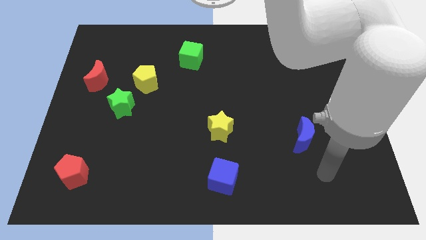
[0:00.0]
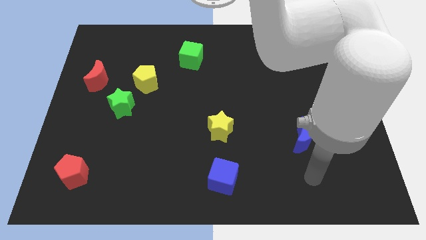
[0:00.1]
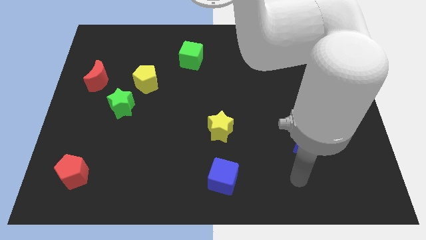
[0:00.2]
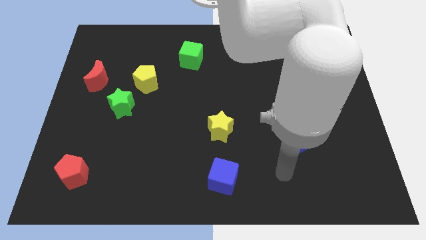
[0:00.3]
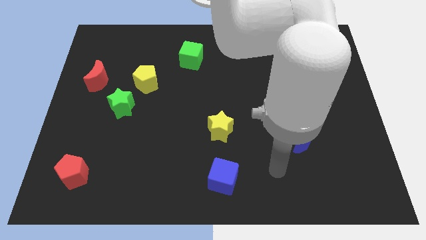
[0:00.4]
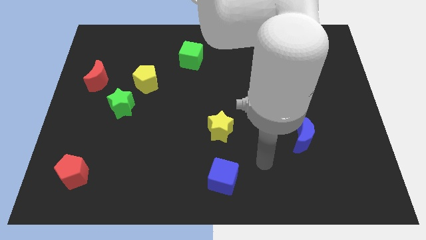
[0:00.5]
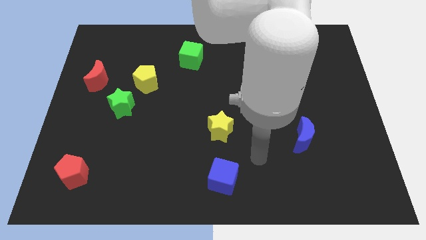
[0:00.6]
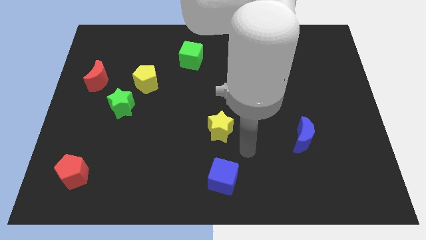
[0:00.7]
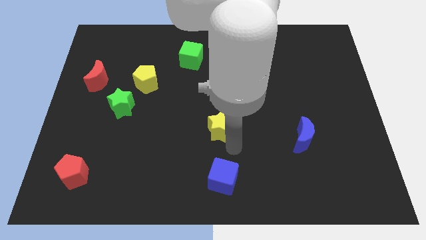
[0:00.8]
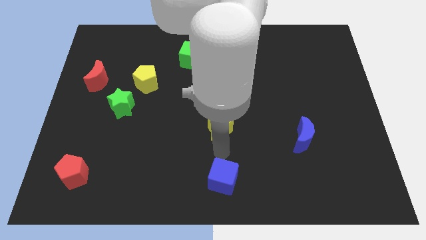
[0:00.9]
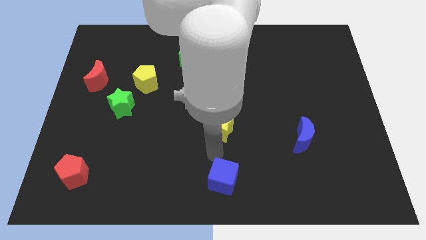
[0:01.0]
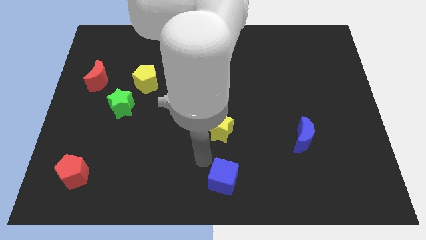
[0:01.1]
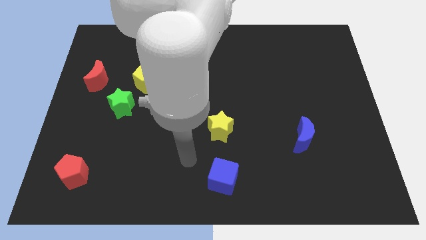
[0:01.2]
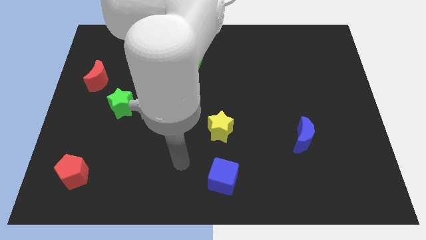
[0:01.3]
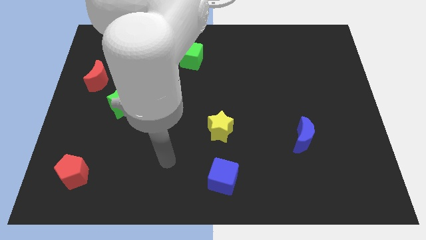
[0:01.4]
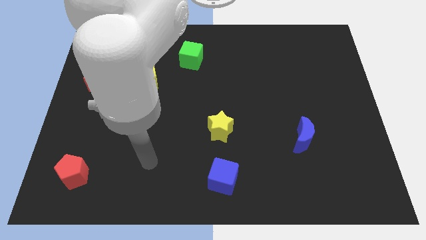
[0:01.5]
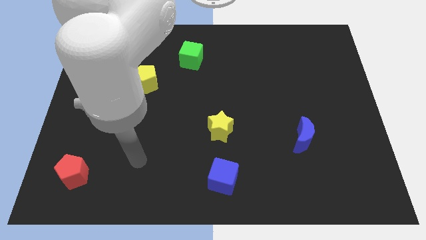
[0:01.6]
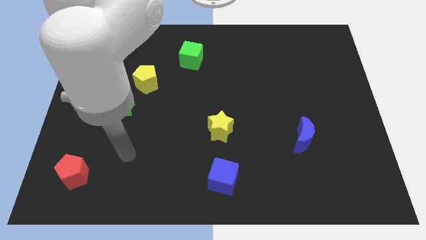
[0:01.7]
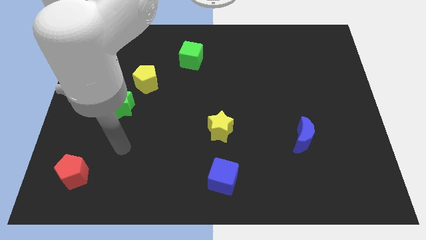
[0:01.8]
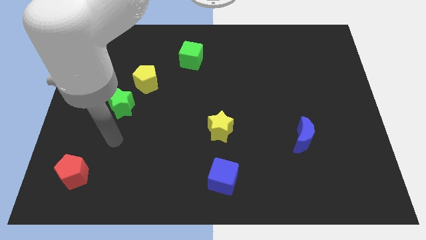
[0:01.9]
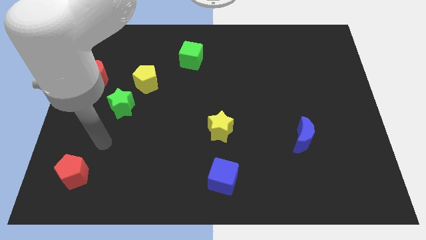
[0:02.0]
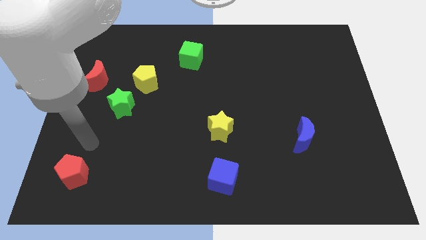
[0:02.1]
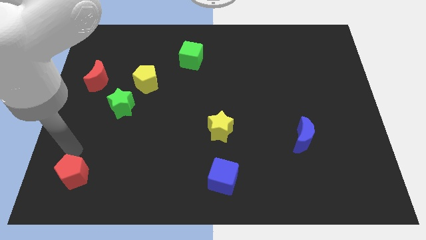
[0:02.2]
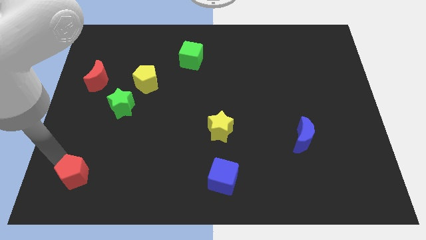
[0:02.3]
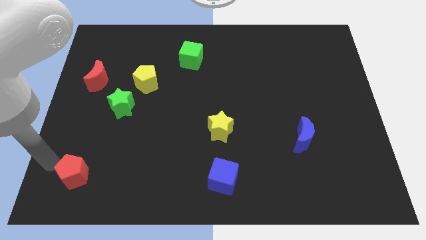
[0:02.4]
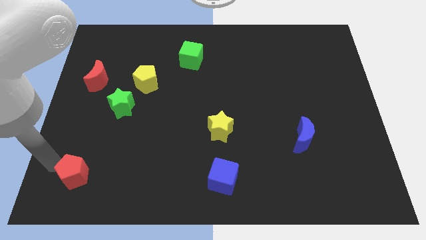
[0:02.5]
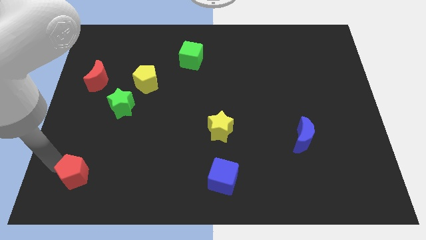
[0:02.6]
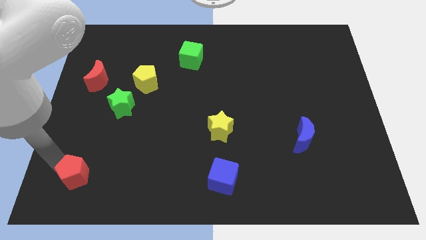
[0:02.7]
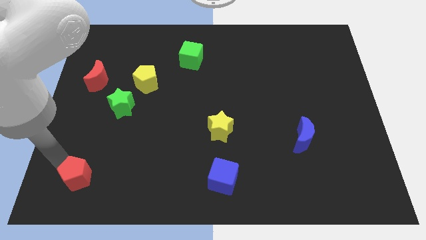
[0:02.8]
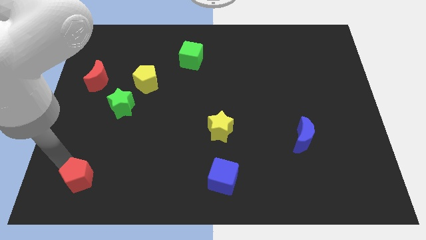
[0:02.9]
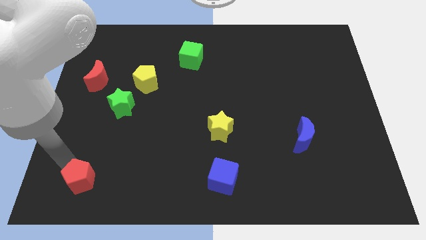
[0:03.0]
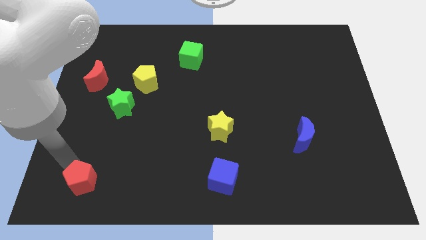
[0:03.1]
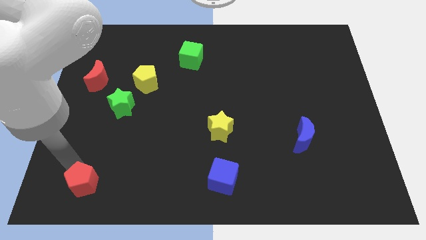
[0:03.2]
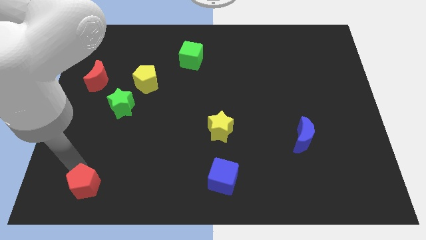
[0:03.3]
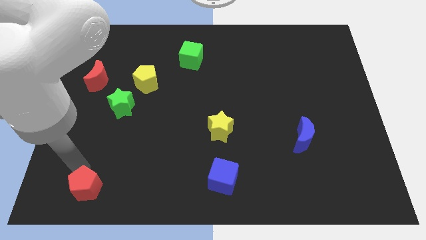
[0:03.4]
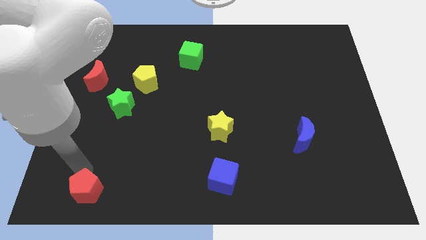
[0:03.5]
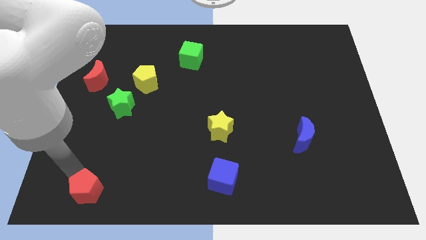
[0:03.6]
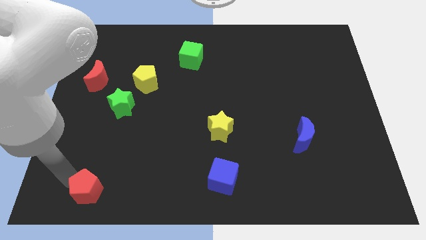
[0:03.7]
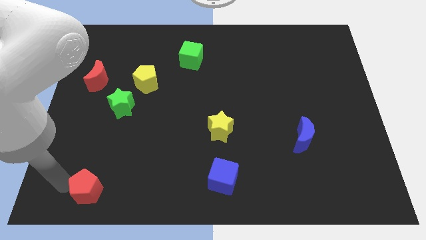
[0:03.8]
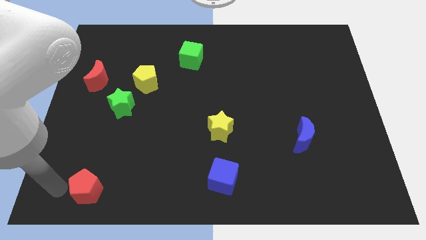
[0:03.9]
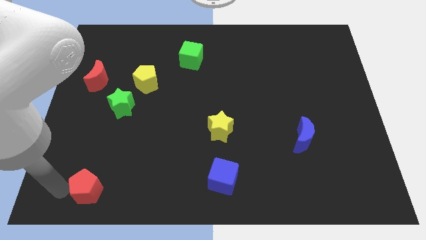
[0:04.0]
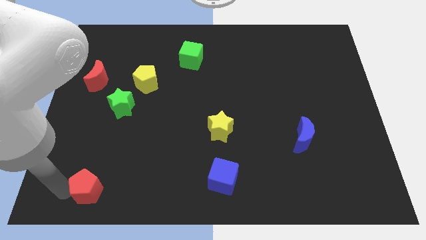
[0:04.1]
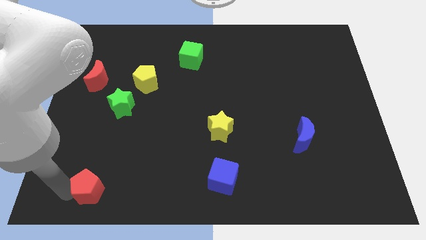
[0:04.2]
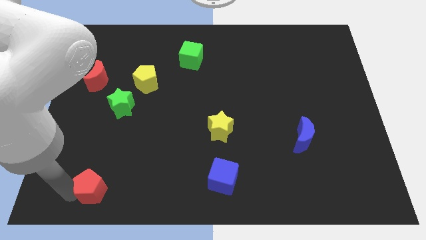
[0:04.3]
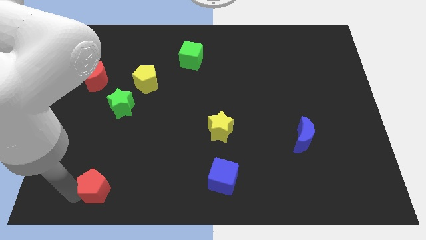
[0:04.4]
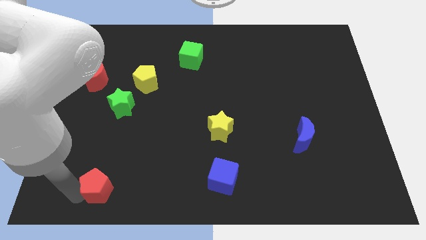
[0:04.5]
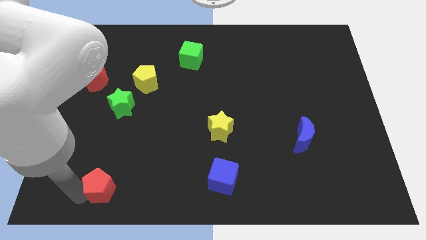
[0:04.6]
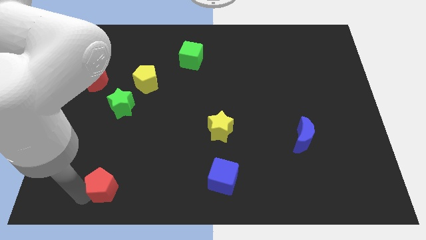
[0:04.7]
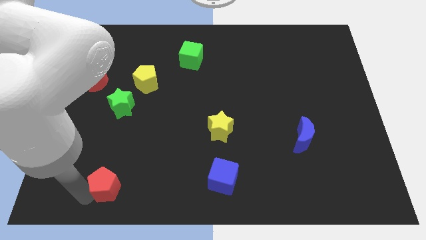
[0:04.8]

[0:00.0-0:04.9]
slightly push the red pentagon right

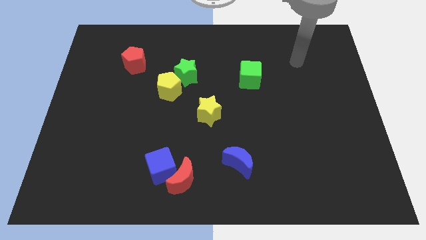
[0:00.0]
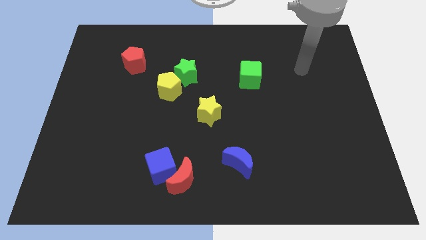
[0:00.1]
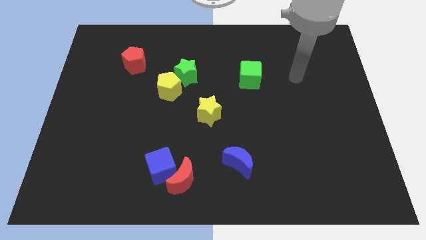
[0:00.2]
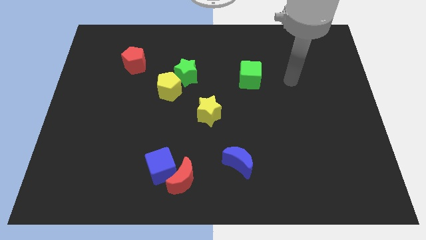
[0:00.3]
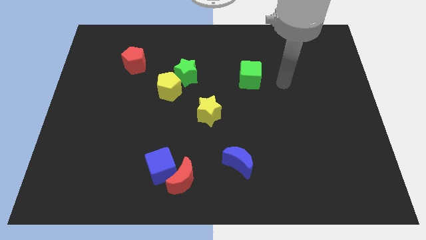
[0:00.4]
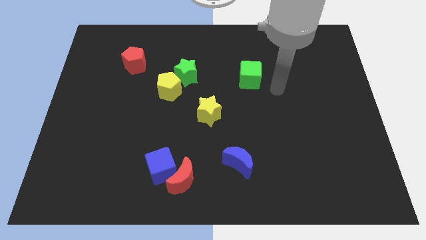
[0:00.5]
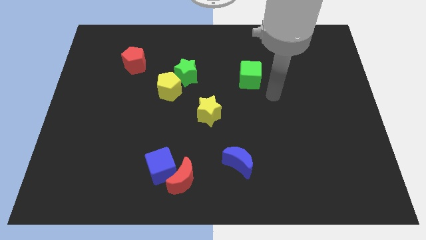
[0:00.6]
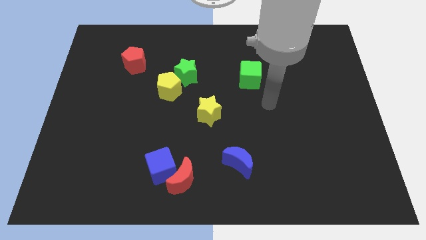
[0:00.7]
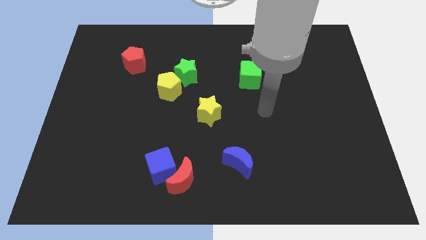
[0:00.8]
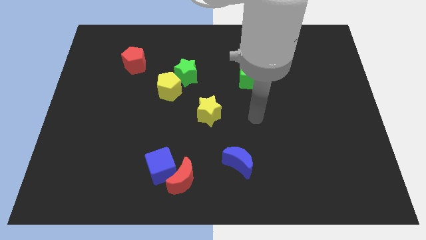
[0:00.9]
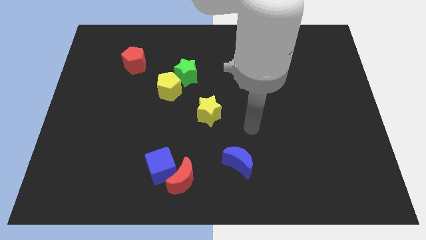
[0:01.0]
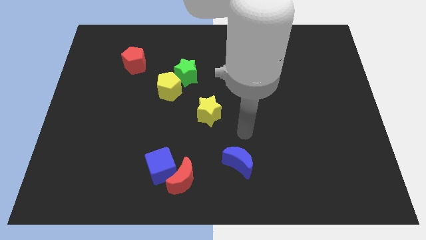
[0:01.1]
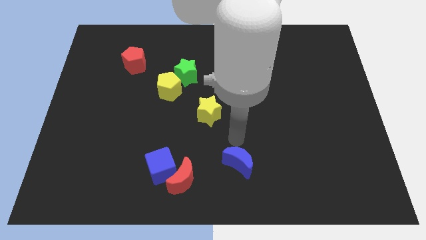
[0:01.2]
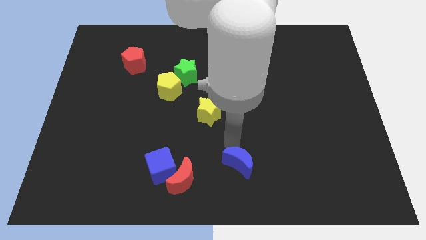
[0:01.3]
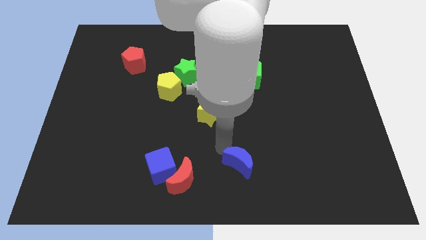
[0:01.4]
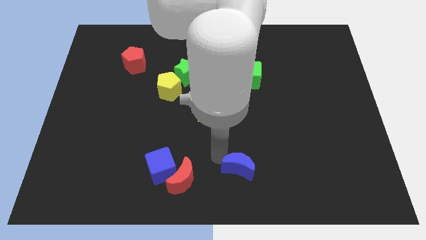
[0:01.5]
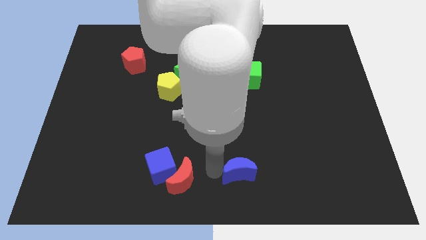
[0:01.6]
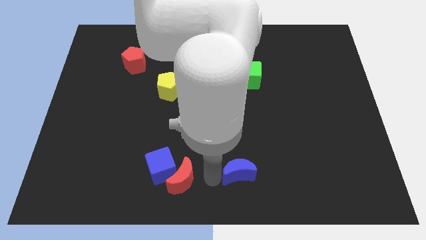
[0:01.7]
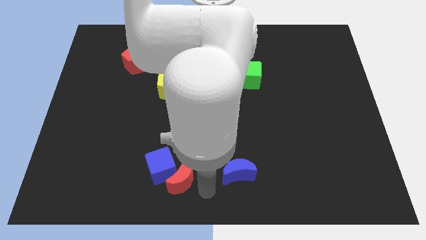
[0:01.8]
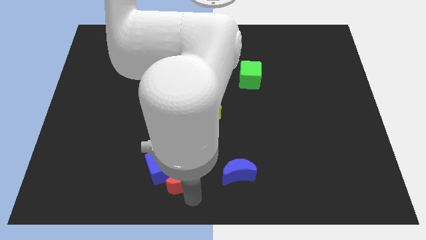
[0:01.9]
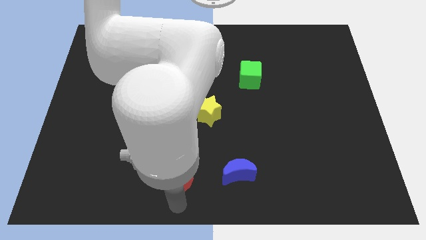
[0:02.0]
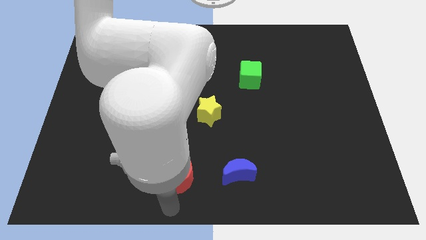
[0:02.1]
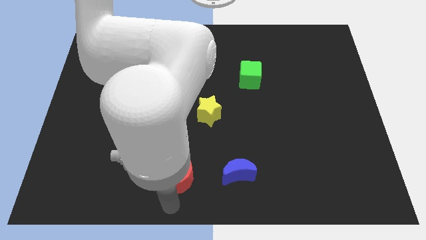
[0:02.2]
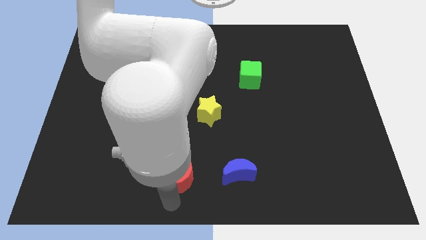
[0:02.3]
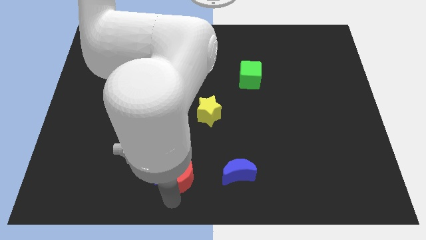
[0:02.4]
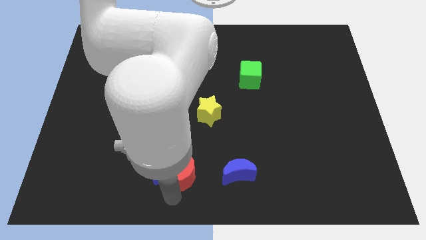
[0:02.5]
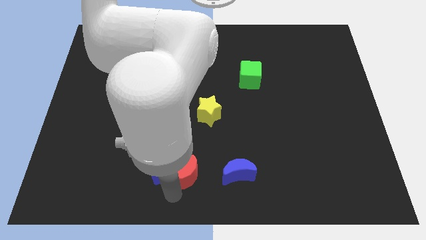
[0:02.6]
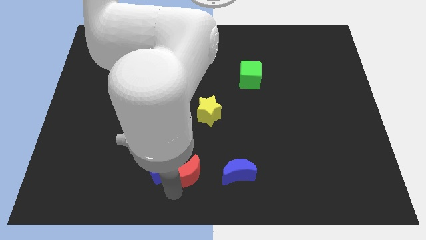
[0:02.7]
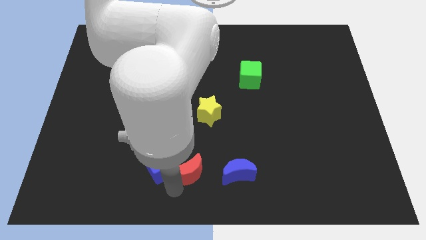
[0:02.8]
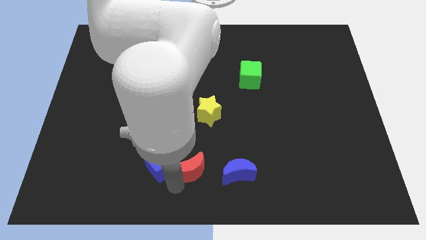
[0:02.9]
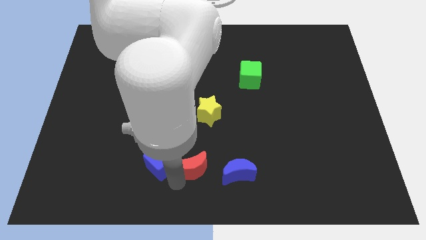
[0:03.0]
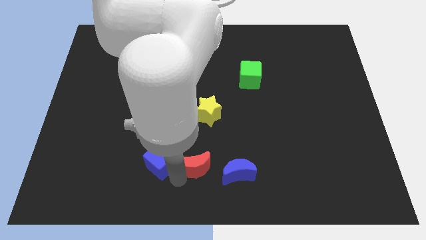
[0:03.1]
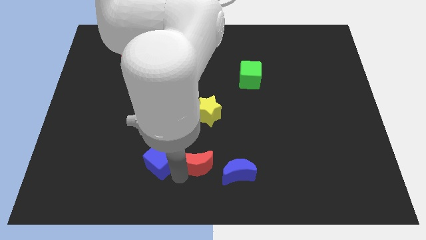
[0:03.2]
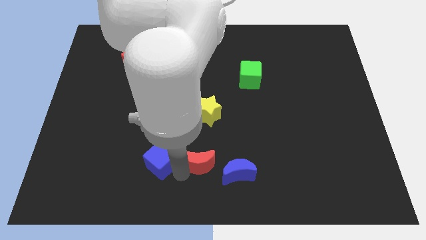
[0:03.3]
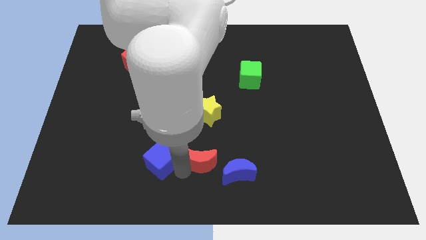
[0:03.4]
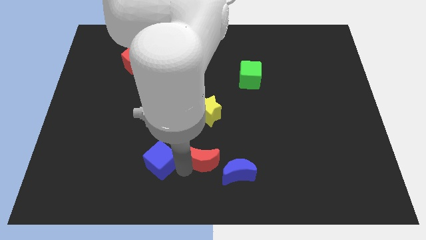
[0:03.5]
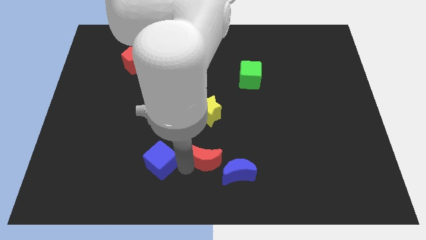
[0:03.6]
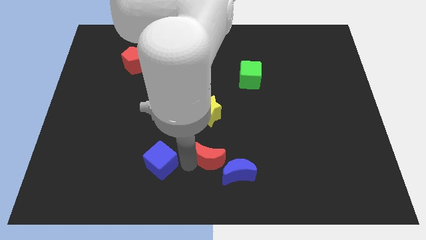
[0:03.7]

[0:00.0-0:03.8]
push the red moon slightly up and to the right diagonally
